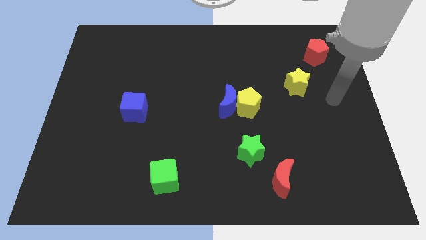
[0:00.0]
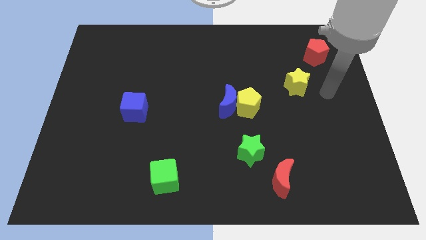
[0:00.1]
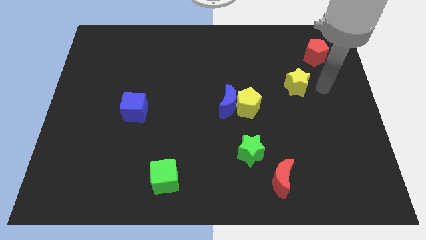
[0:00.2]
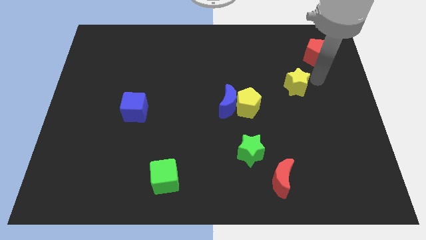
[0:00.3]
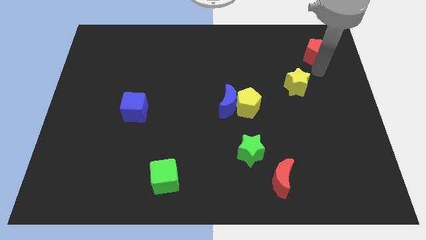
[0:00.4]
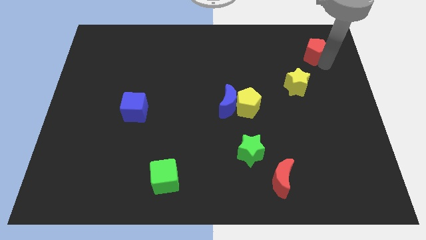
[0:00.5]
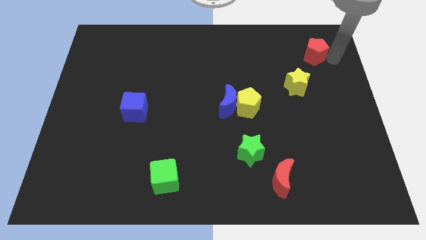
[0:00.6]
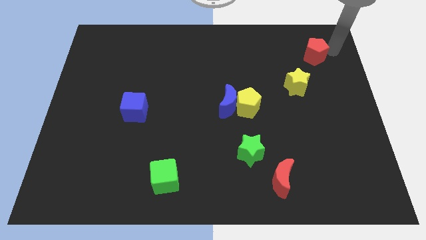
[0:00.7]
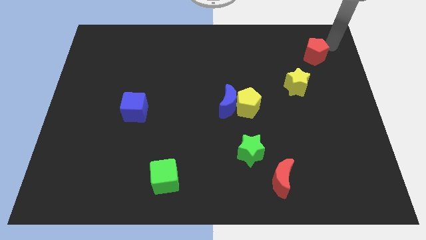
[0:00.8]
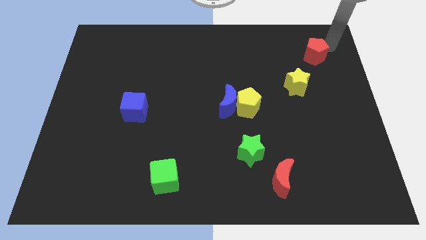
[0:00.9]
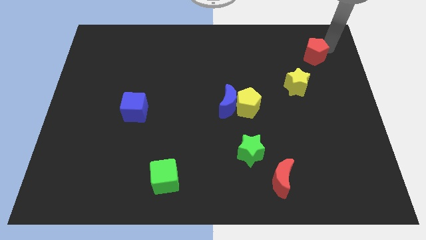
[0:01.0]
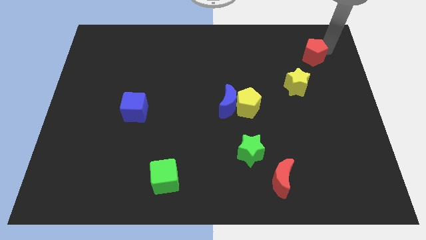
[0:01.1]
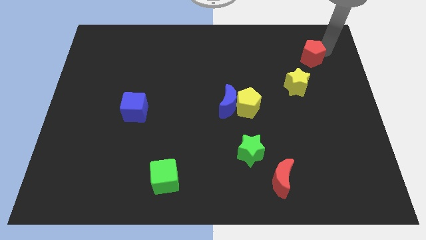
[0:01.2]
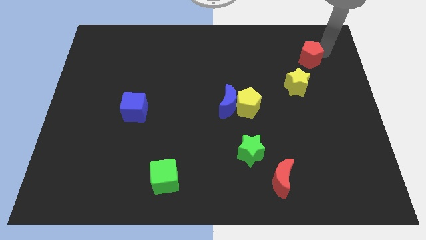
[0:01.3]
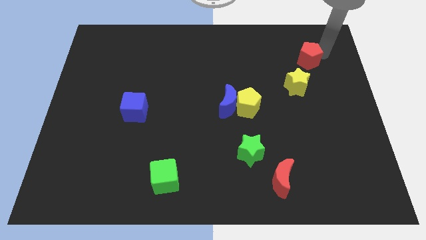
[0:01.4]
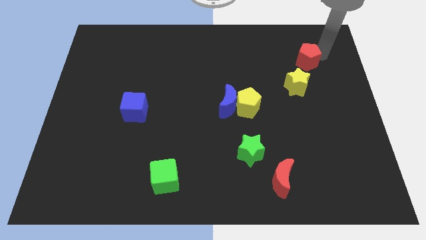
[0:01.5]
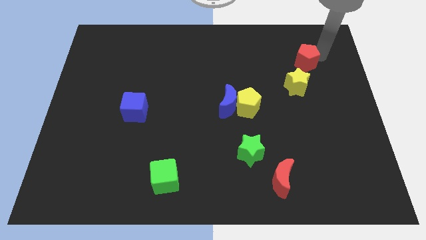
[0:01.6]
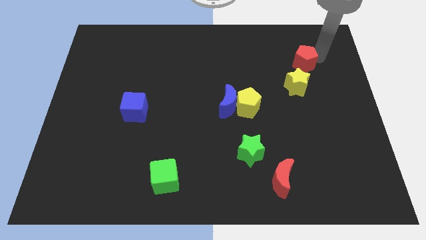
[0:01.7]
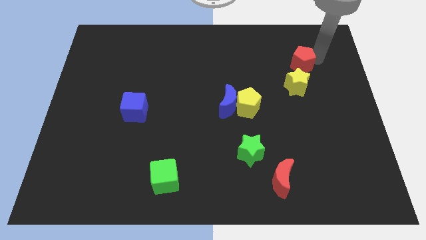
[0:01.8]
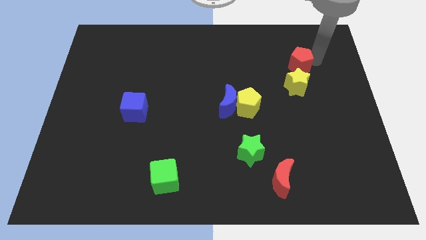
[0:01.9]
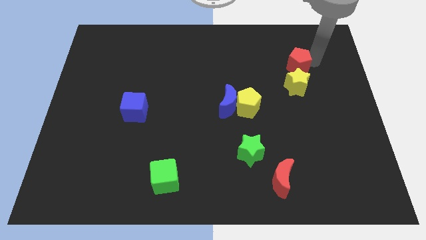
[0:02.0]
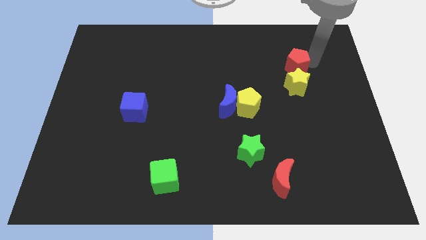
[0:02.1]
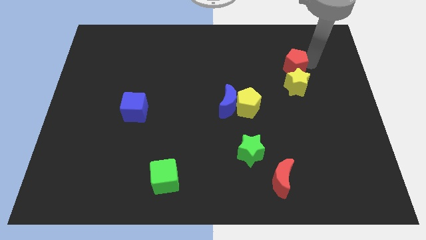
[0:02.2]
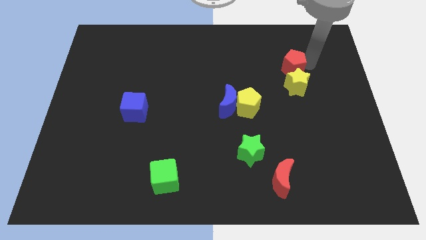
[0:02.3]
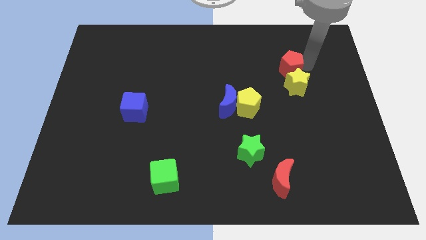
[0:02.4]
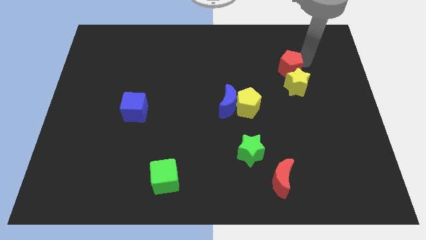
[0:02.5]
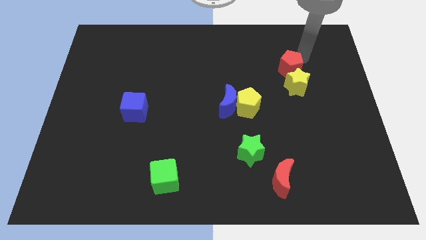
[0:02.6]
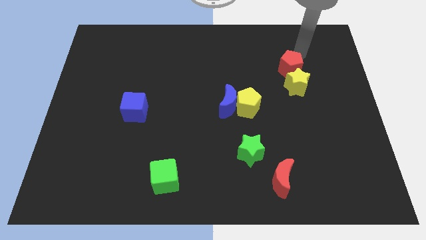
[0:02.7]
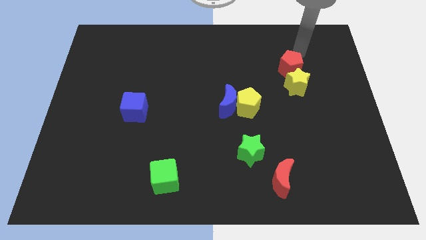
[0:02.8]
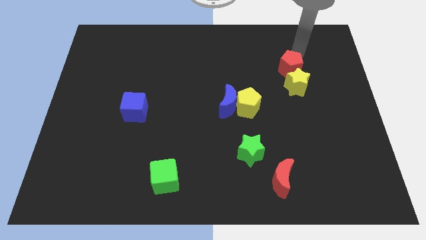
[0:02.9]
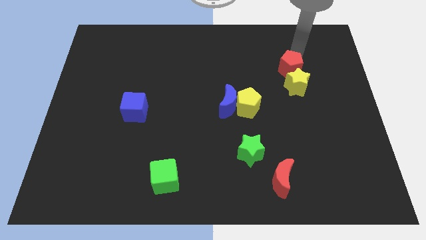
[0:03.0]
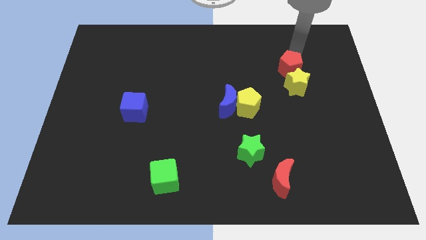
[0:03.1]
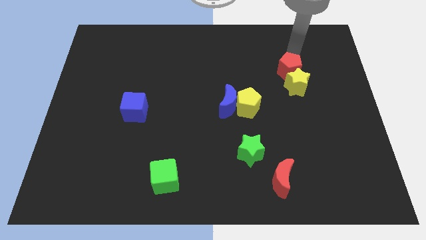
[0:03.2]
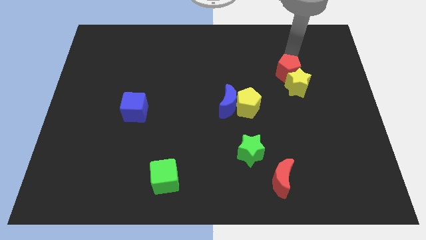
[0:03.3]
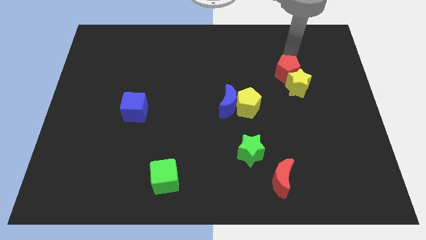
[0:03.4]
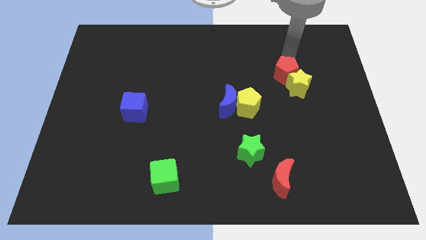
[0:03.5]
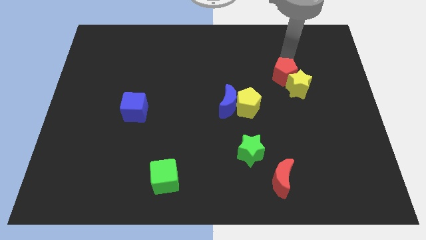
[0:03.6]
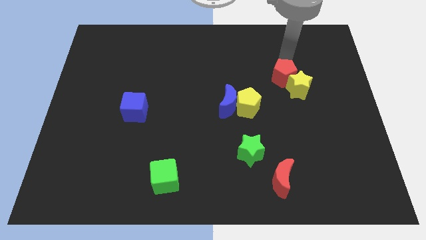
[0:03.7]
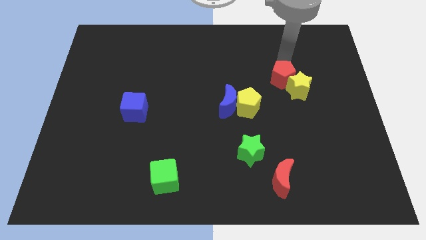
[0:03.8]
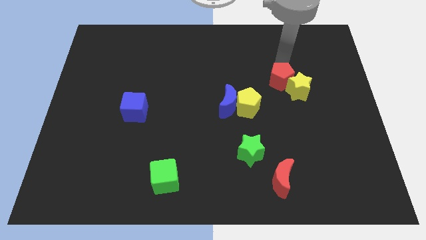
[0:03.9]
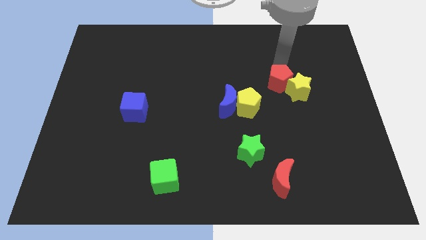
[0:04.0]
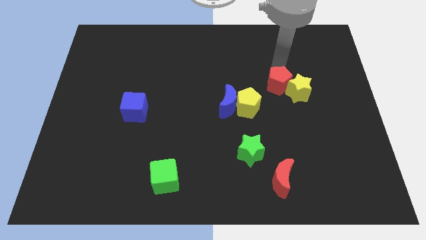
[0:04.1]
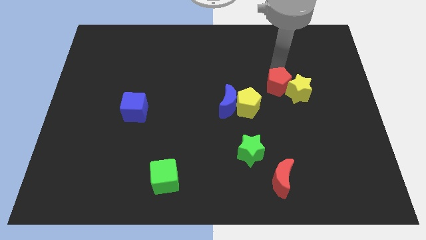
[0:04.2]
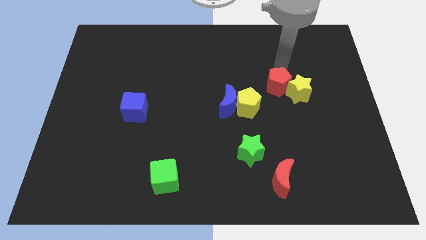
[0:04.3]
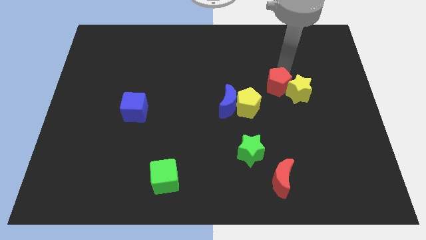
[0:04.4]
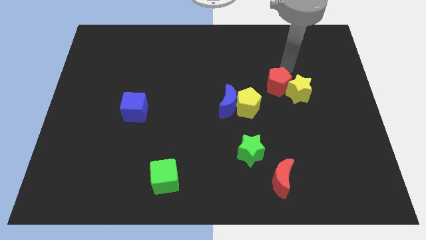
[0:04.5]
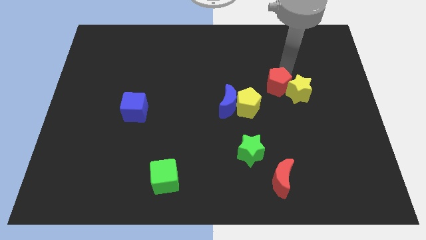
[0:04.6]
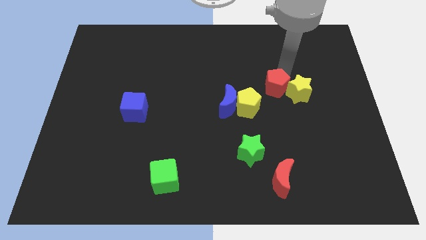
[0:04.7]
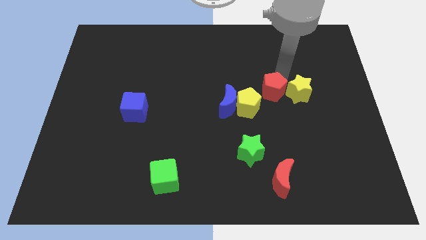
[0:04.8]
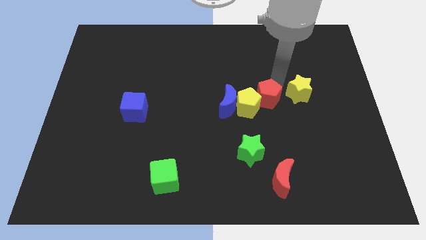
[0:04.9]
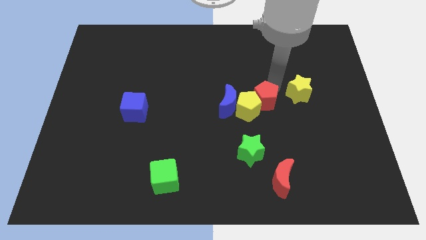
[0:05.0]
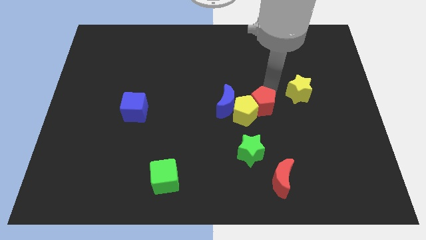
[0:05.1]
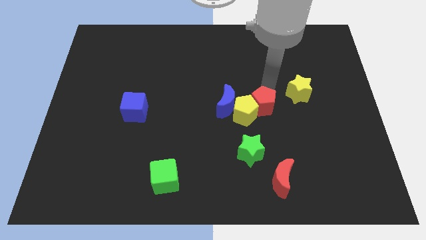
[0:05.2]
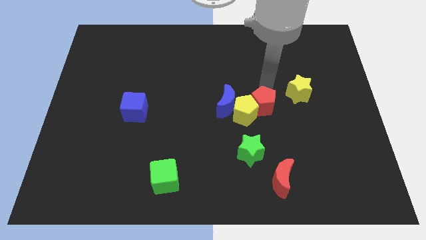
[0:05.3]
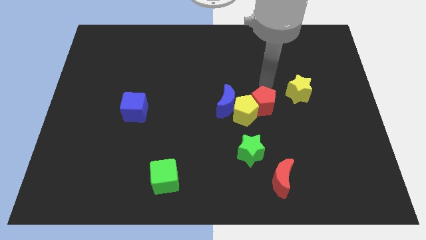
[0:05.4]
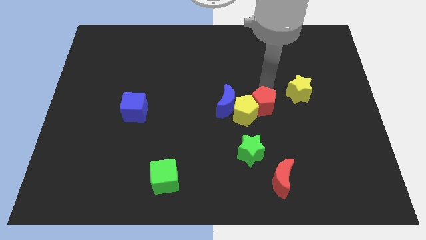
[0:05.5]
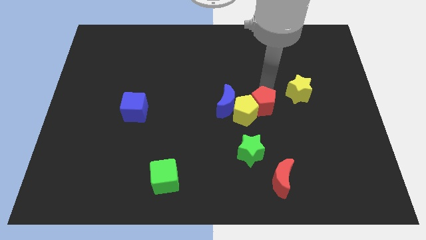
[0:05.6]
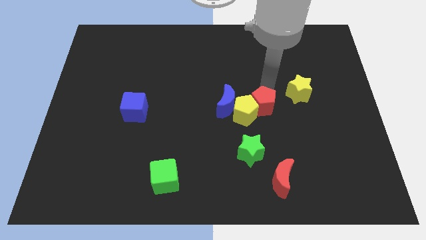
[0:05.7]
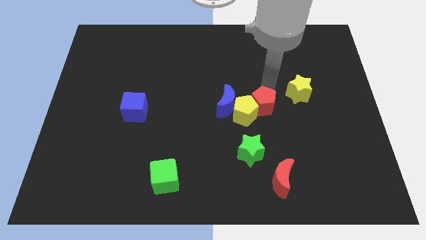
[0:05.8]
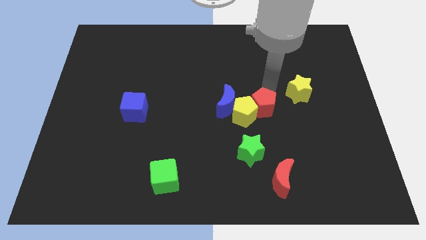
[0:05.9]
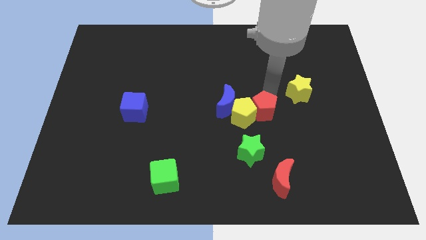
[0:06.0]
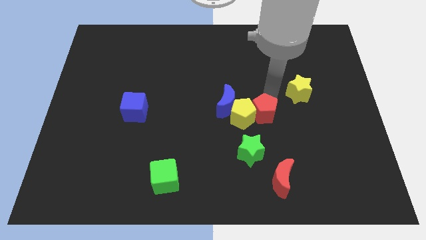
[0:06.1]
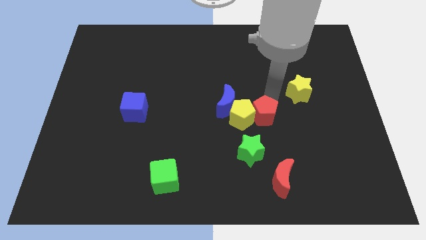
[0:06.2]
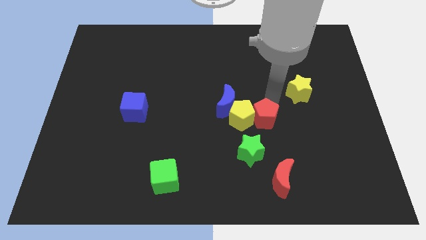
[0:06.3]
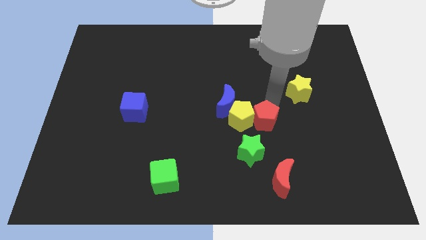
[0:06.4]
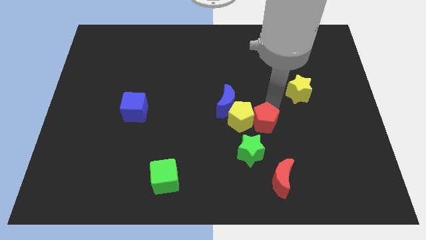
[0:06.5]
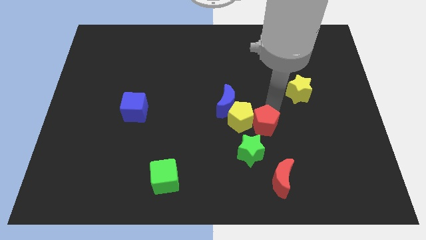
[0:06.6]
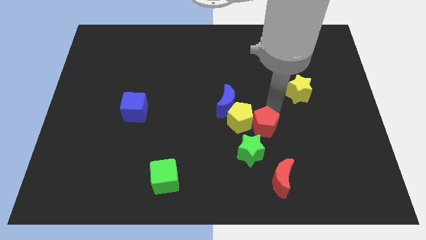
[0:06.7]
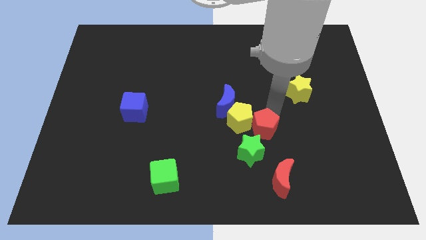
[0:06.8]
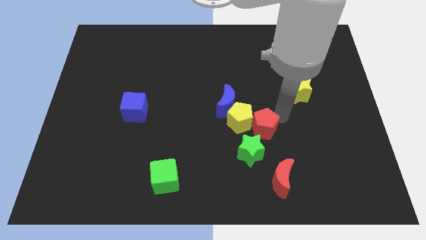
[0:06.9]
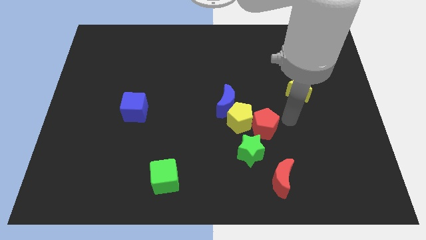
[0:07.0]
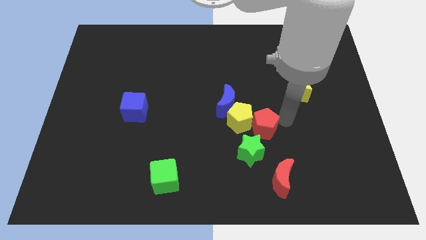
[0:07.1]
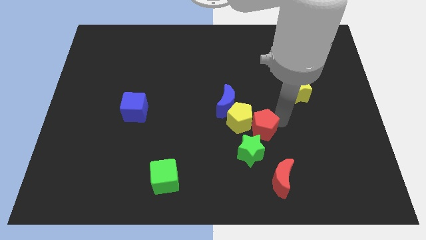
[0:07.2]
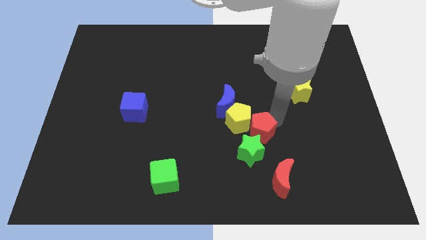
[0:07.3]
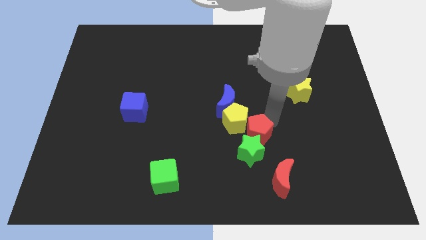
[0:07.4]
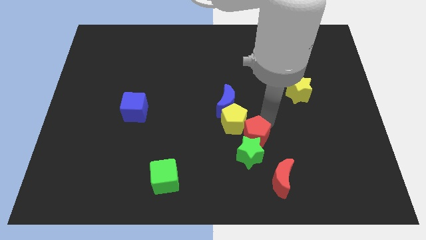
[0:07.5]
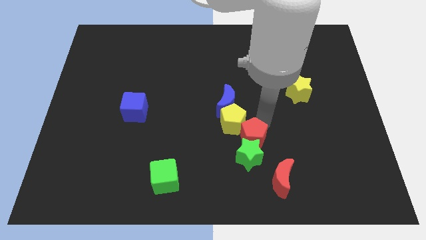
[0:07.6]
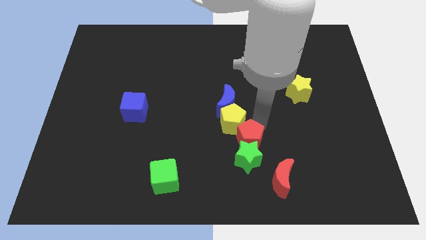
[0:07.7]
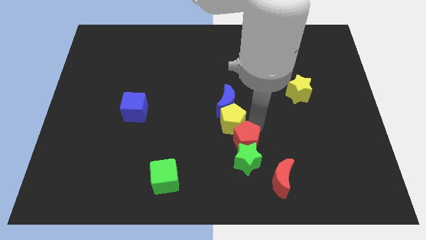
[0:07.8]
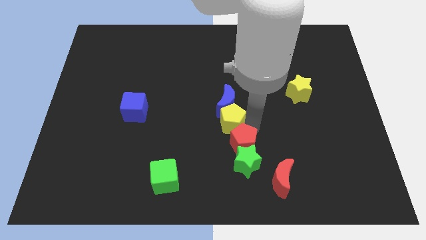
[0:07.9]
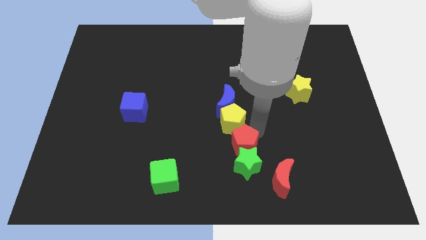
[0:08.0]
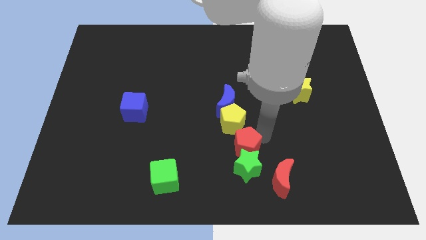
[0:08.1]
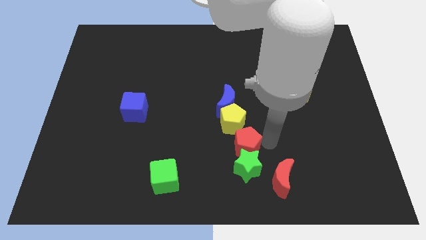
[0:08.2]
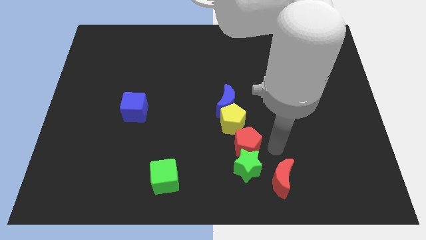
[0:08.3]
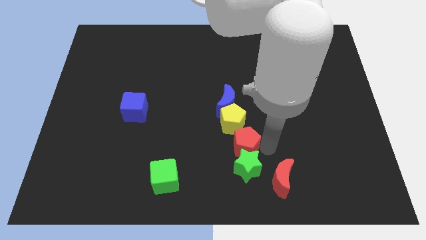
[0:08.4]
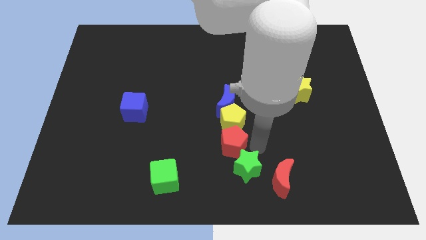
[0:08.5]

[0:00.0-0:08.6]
move the red pentagon to the bottom left of the yellow pentagon

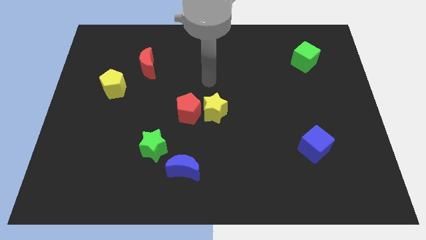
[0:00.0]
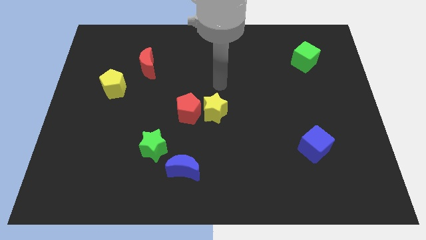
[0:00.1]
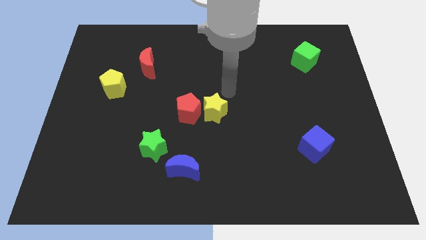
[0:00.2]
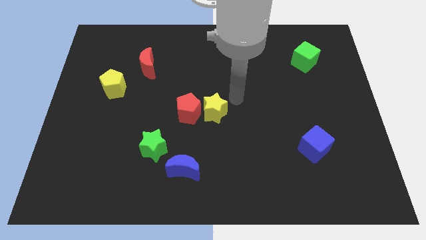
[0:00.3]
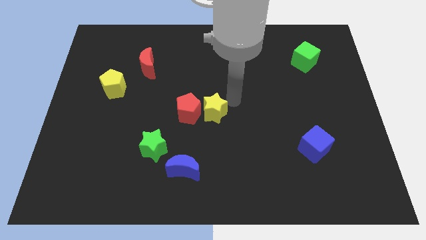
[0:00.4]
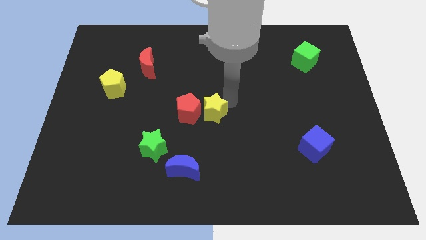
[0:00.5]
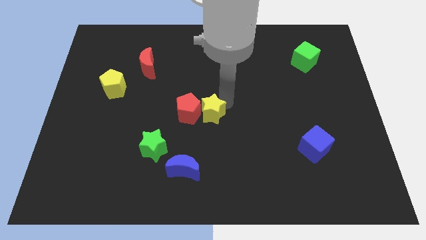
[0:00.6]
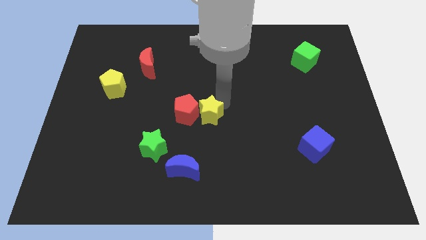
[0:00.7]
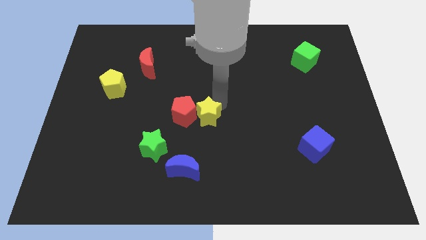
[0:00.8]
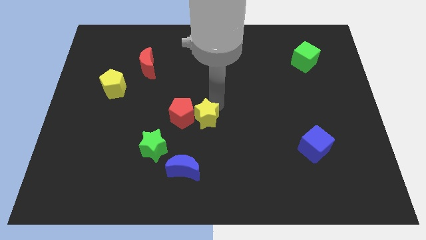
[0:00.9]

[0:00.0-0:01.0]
slide the yellow star above the blue moon
